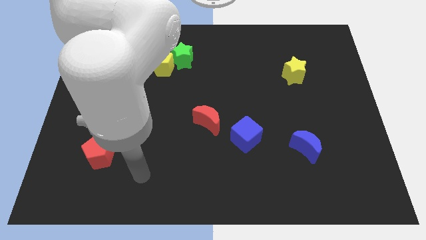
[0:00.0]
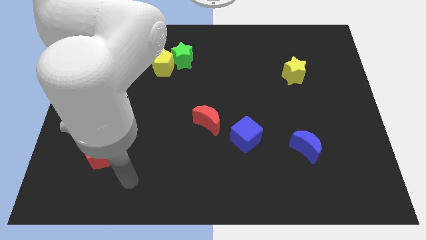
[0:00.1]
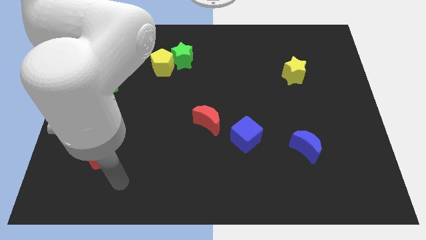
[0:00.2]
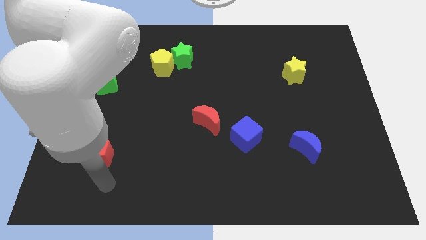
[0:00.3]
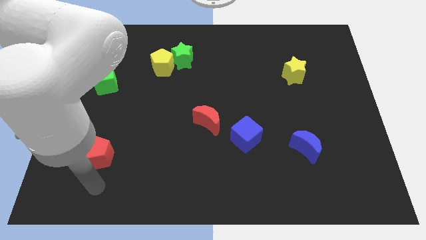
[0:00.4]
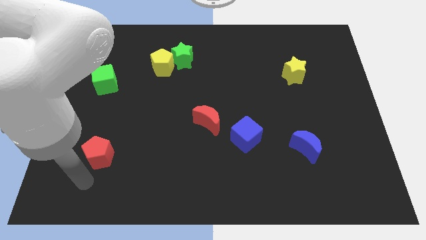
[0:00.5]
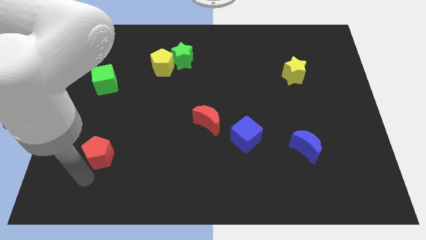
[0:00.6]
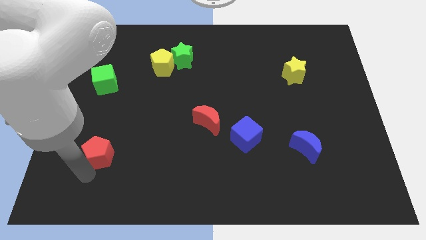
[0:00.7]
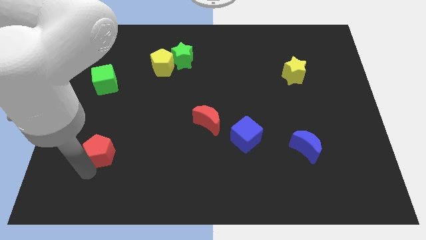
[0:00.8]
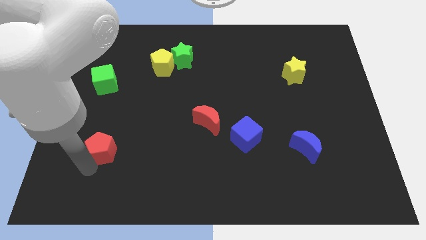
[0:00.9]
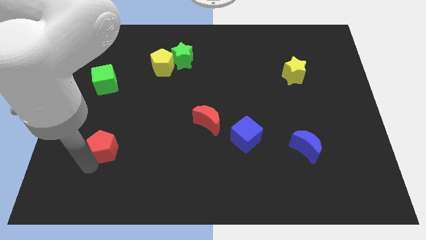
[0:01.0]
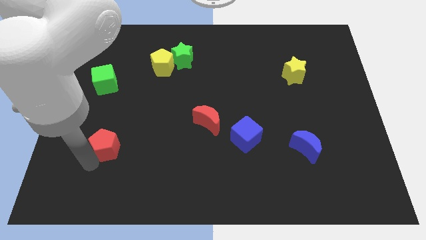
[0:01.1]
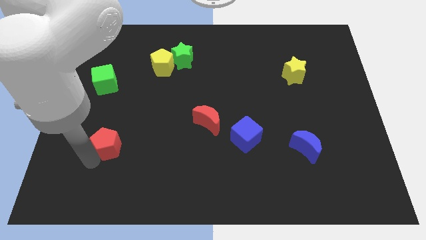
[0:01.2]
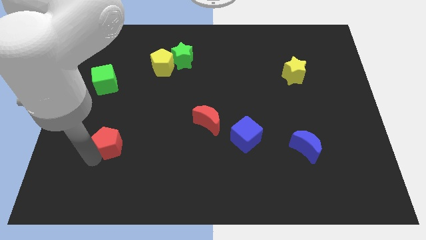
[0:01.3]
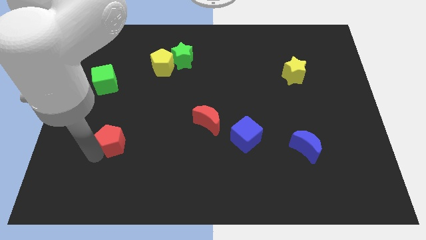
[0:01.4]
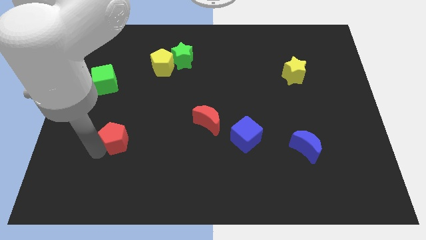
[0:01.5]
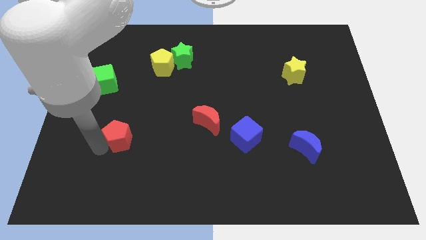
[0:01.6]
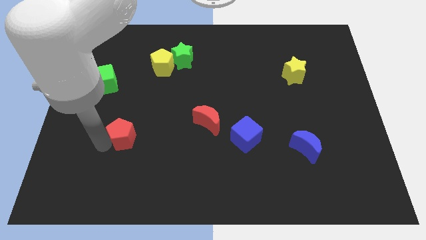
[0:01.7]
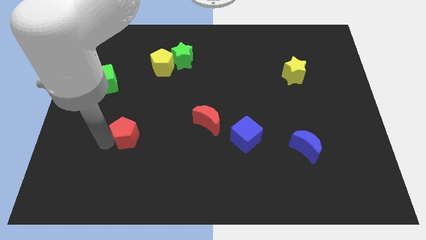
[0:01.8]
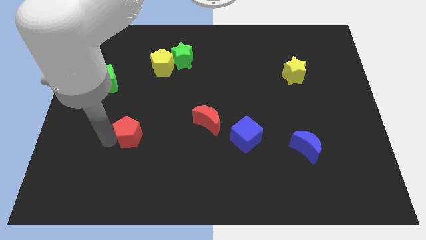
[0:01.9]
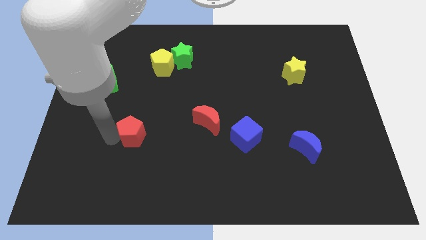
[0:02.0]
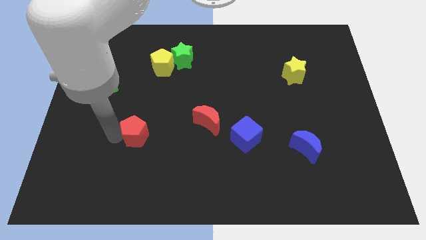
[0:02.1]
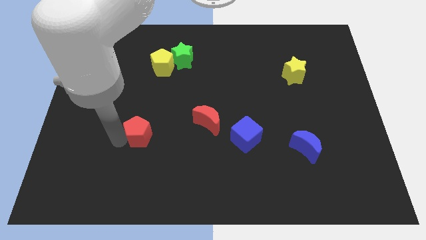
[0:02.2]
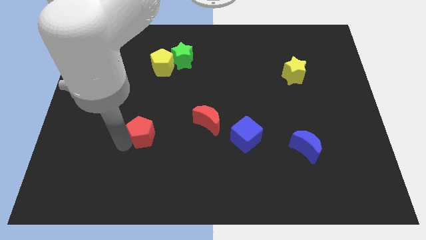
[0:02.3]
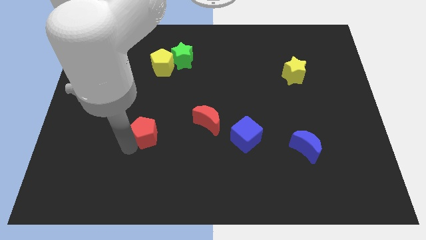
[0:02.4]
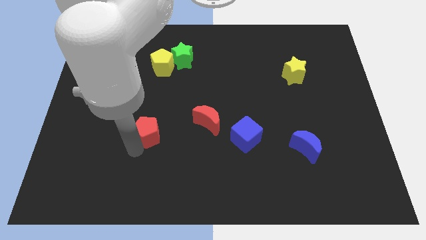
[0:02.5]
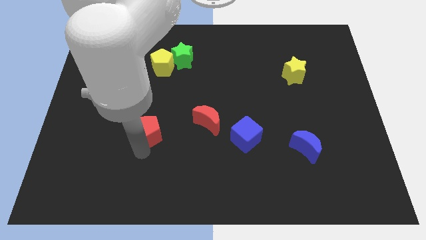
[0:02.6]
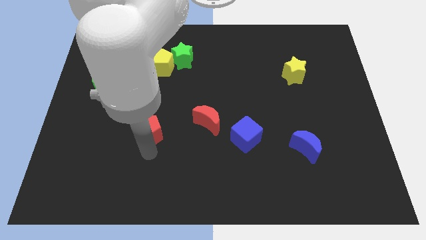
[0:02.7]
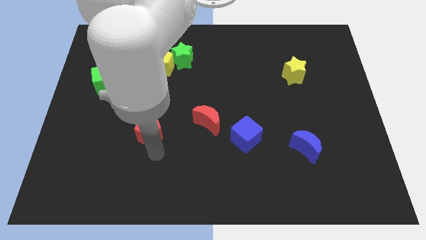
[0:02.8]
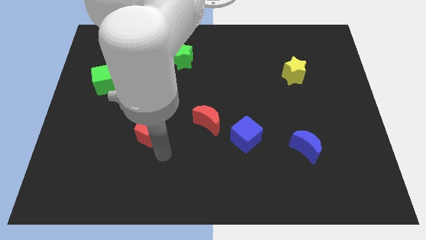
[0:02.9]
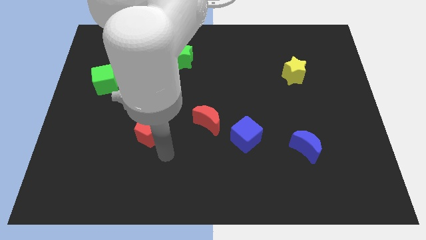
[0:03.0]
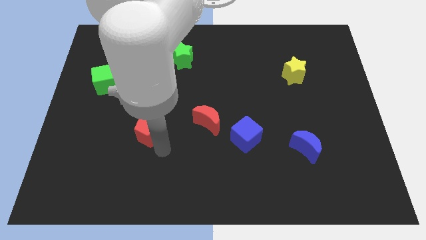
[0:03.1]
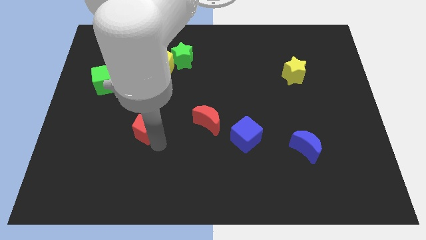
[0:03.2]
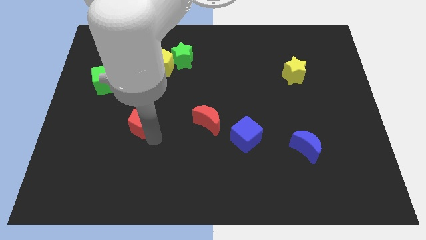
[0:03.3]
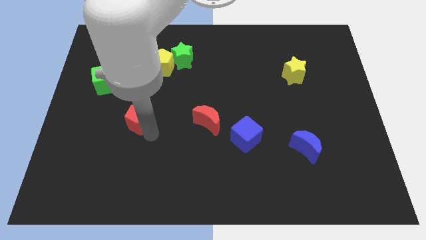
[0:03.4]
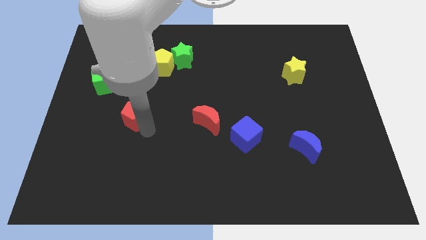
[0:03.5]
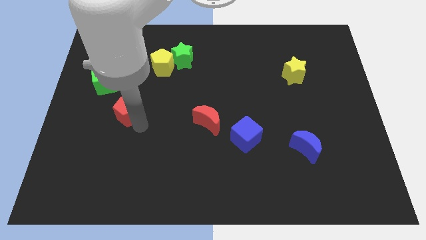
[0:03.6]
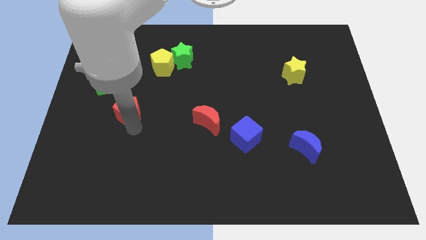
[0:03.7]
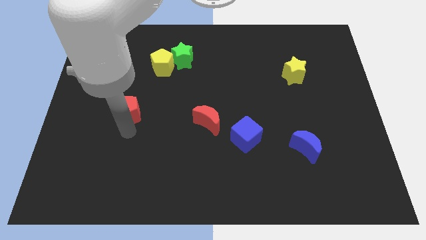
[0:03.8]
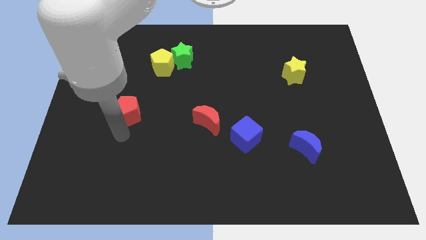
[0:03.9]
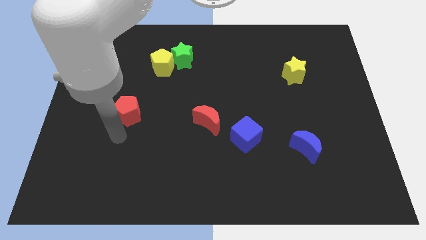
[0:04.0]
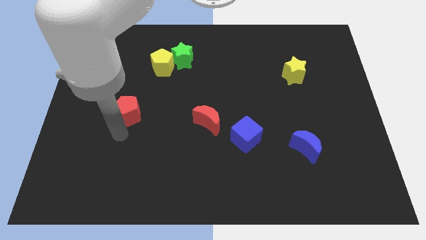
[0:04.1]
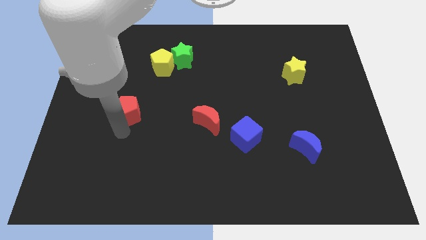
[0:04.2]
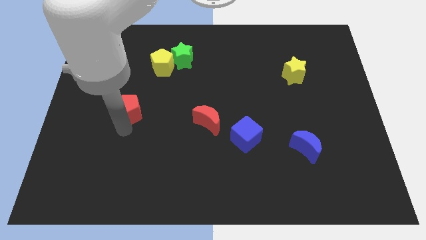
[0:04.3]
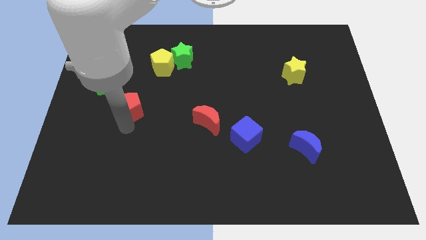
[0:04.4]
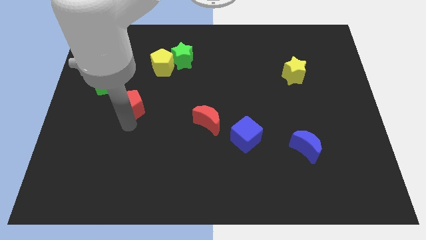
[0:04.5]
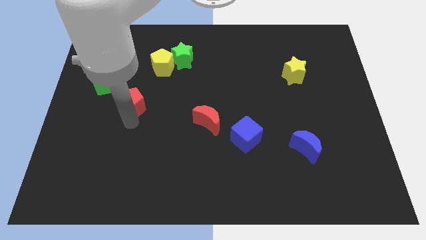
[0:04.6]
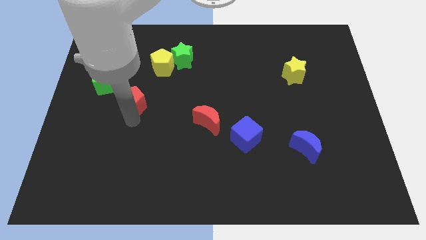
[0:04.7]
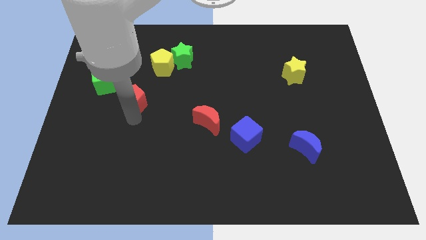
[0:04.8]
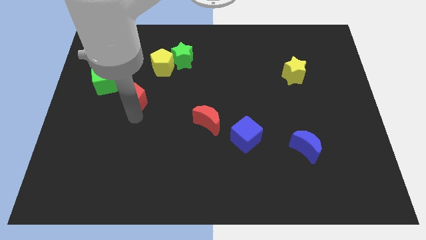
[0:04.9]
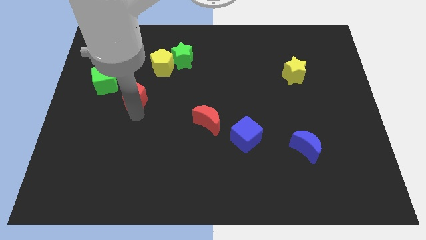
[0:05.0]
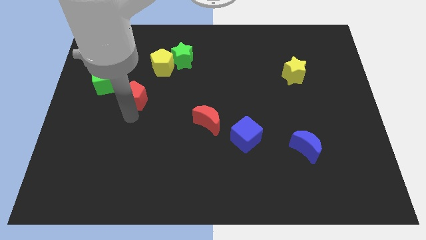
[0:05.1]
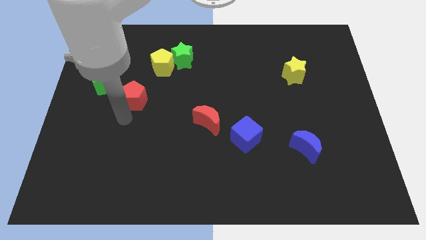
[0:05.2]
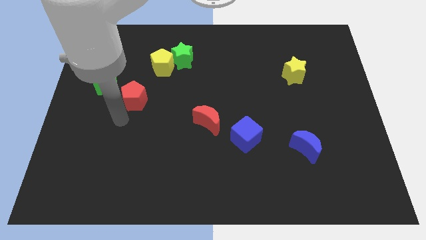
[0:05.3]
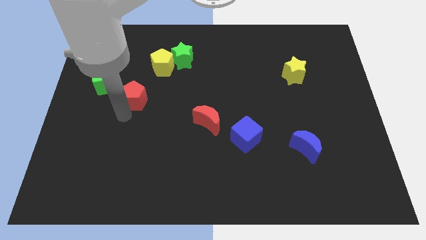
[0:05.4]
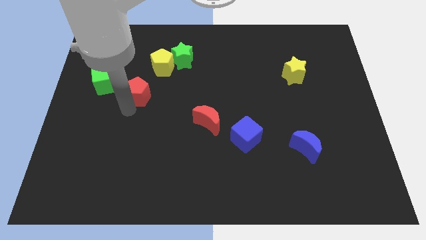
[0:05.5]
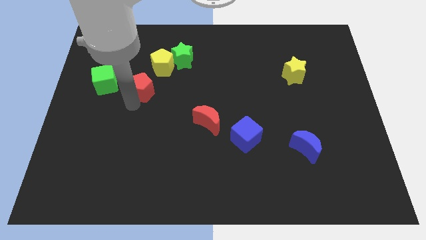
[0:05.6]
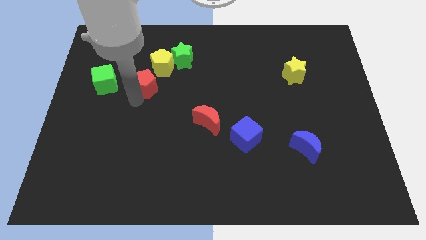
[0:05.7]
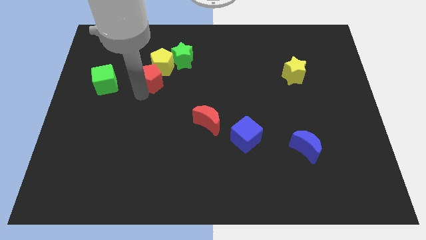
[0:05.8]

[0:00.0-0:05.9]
put the red pentagon next to the yellow pentagon

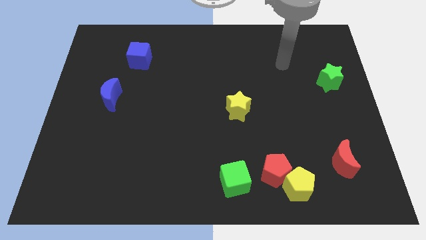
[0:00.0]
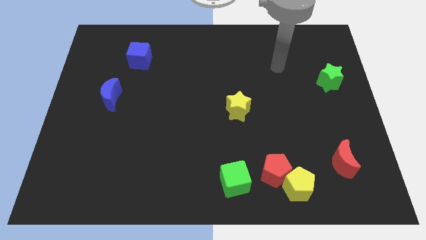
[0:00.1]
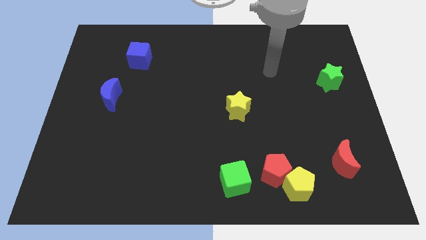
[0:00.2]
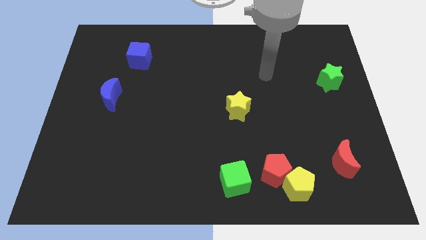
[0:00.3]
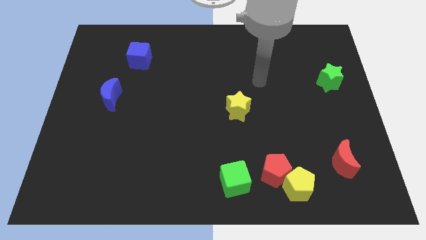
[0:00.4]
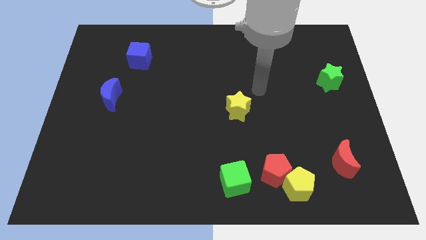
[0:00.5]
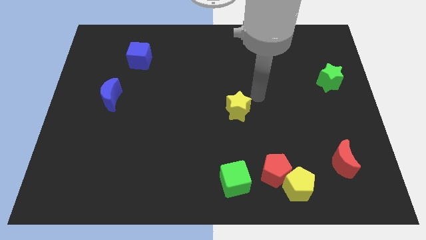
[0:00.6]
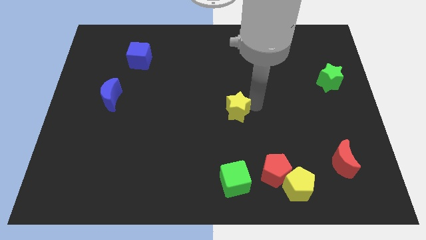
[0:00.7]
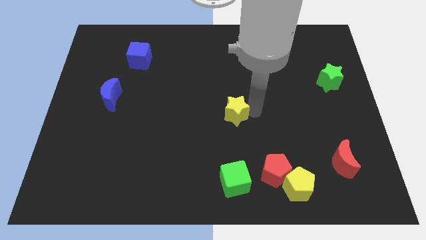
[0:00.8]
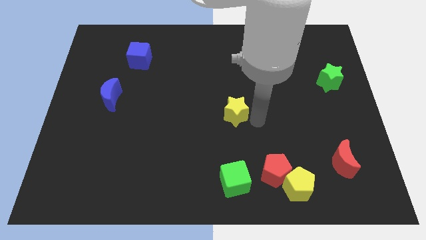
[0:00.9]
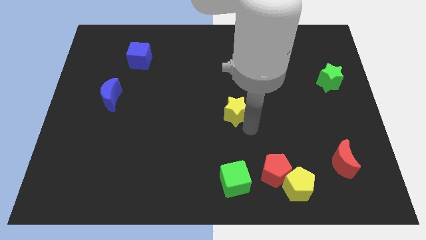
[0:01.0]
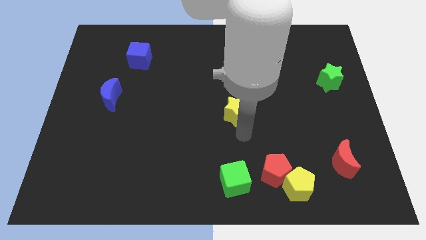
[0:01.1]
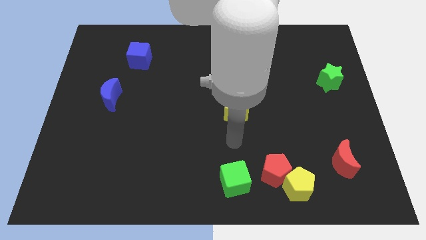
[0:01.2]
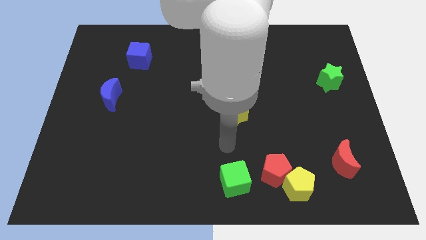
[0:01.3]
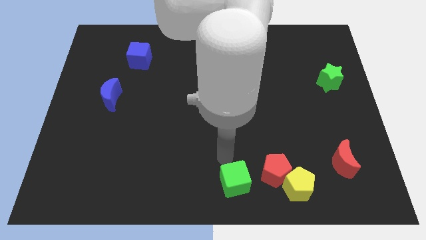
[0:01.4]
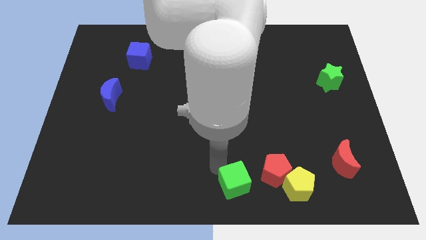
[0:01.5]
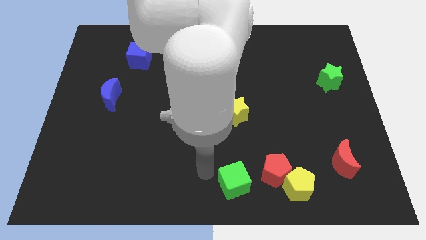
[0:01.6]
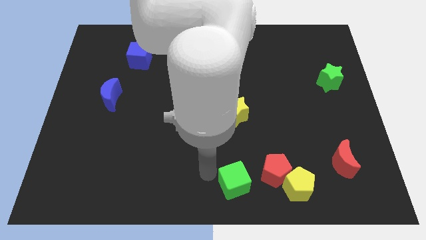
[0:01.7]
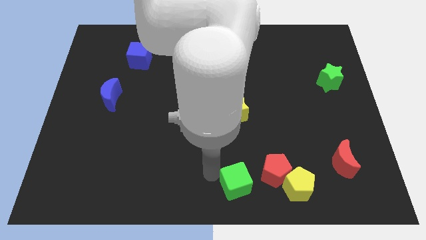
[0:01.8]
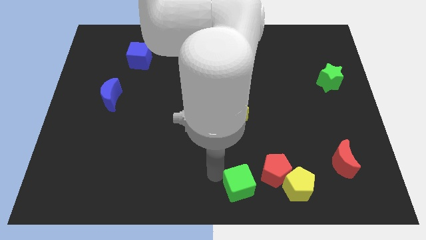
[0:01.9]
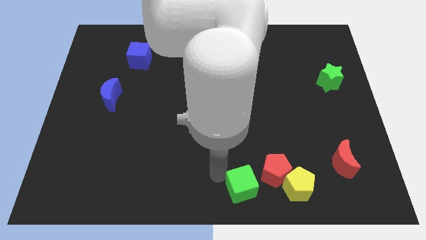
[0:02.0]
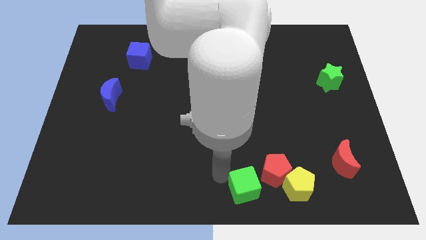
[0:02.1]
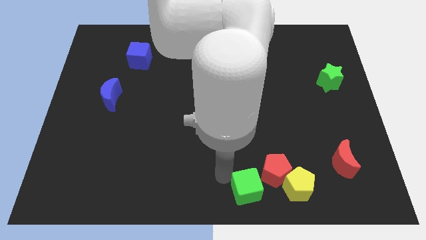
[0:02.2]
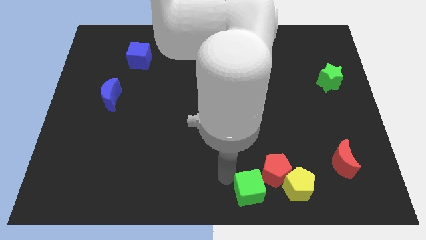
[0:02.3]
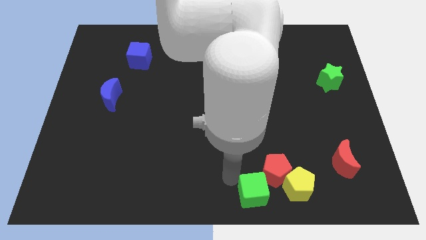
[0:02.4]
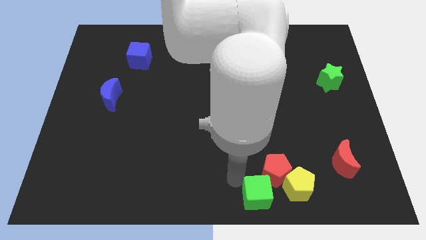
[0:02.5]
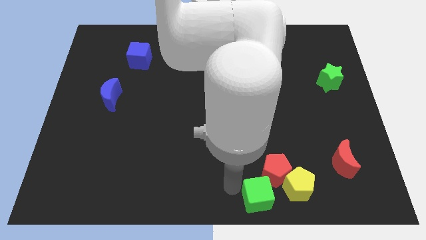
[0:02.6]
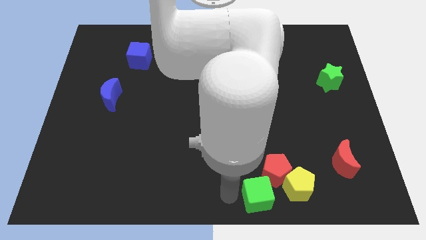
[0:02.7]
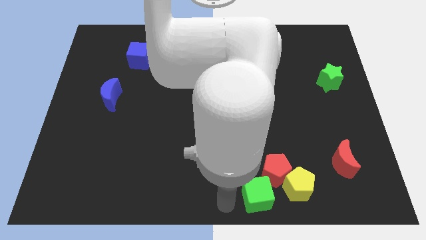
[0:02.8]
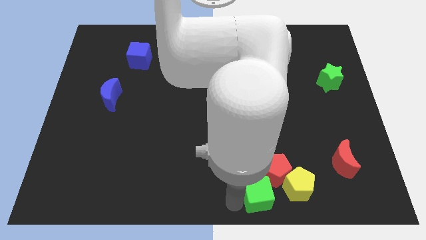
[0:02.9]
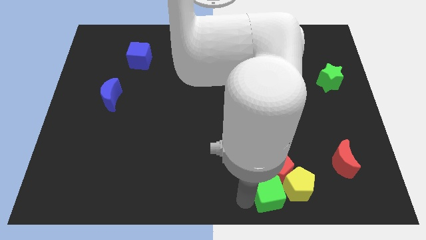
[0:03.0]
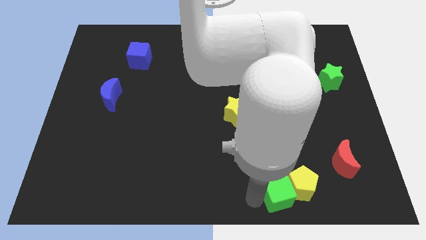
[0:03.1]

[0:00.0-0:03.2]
move the green cube to the yellow pentagon
